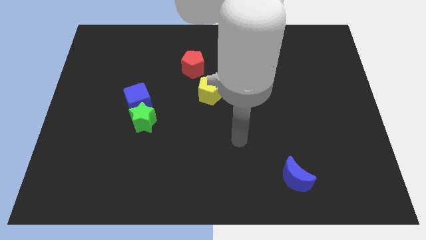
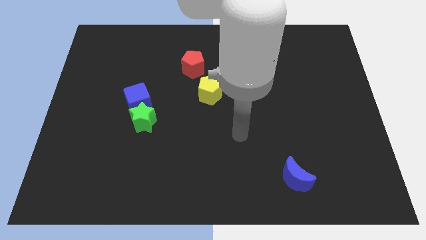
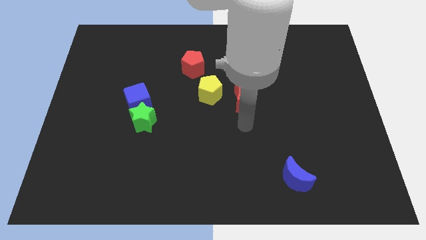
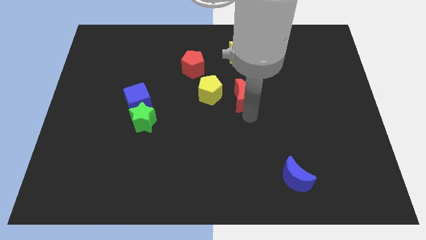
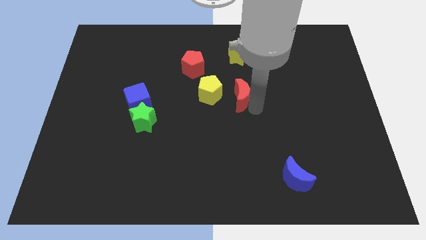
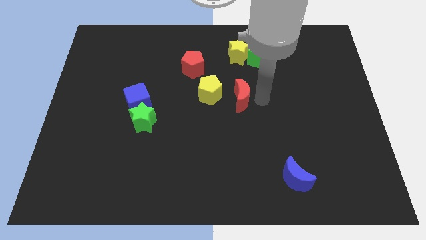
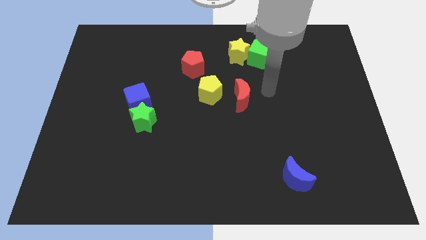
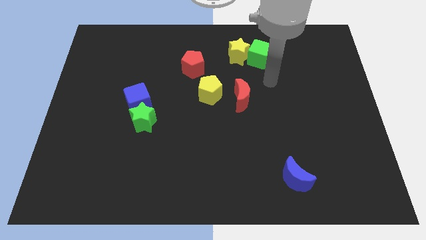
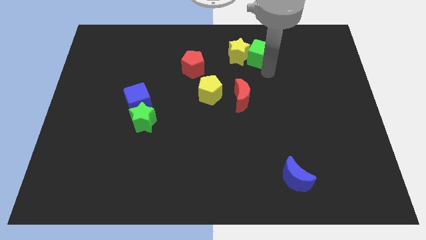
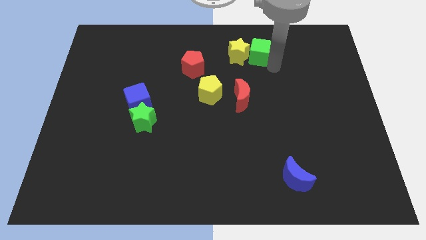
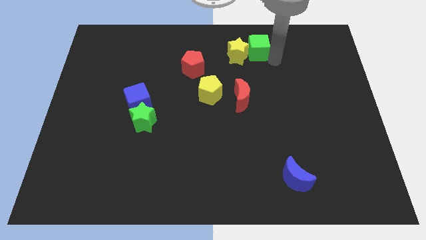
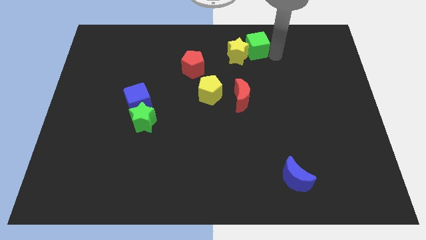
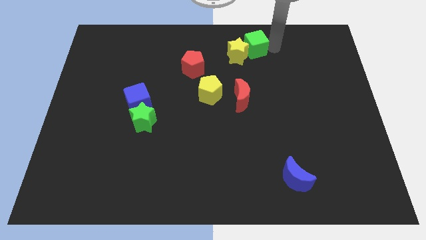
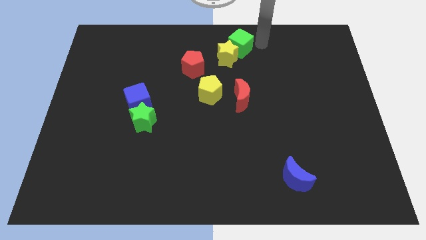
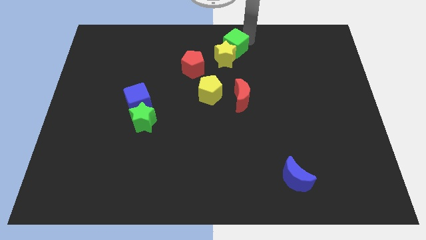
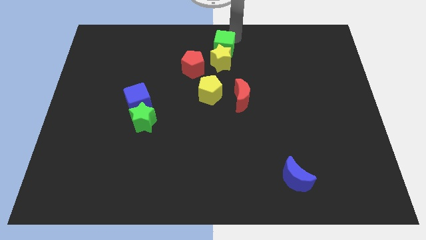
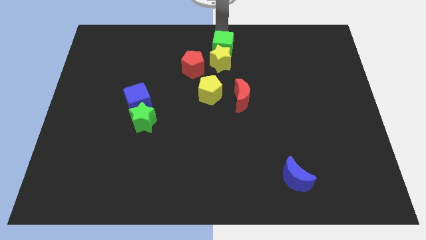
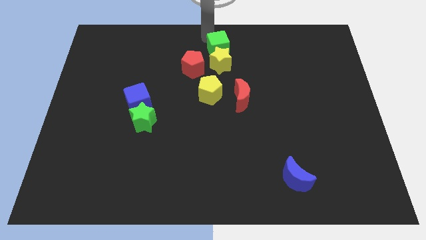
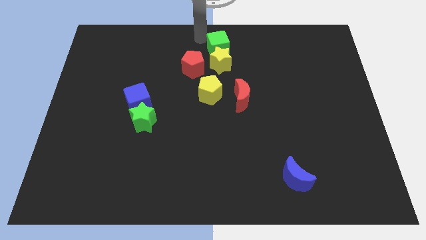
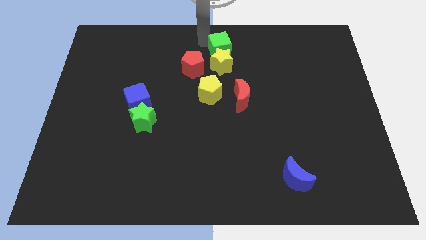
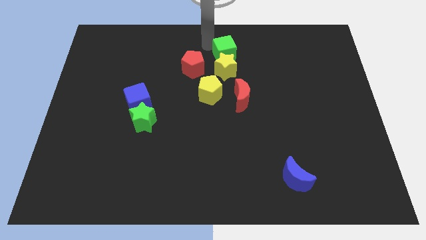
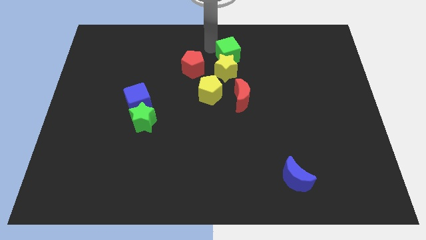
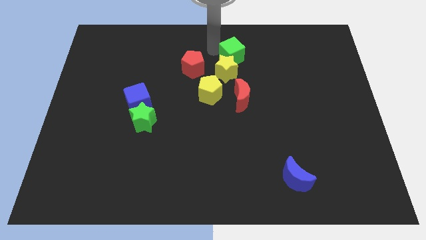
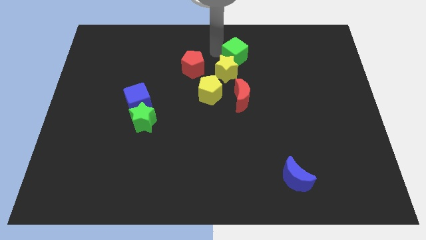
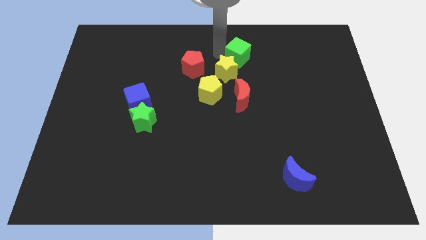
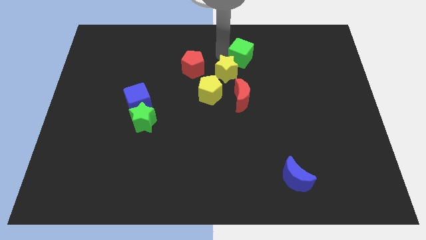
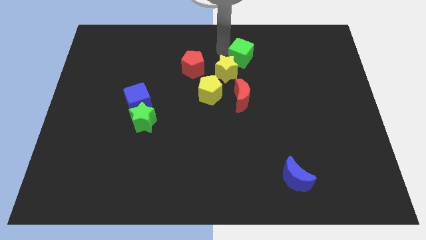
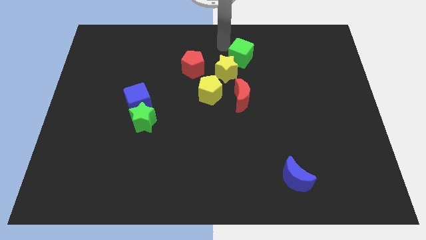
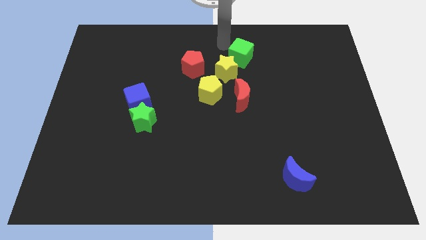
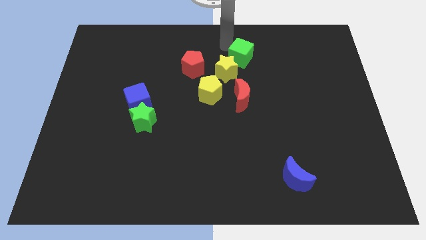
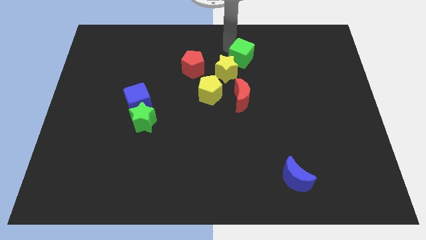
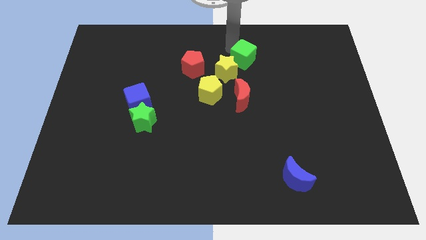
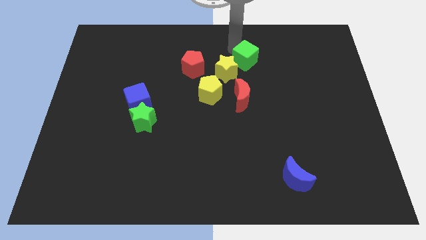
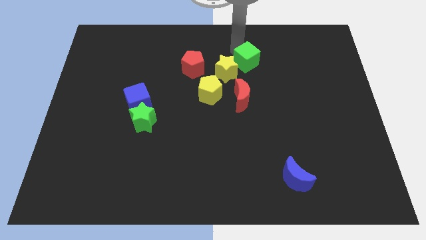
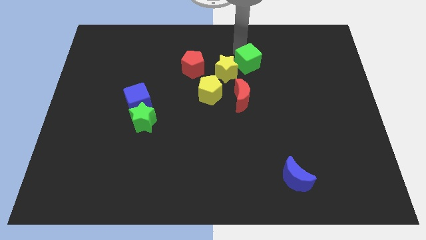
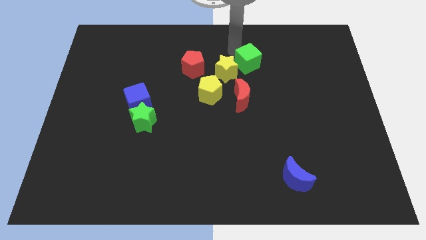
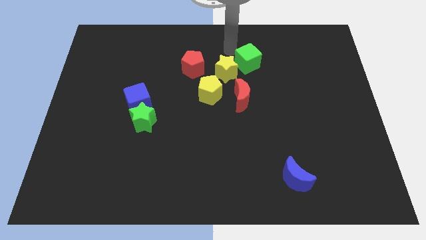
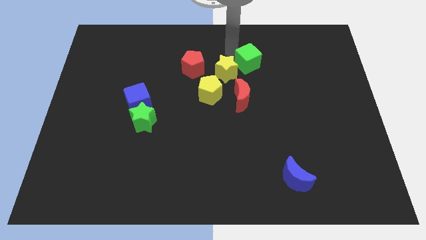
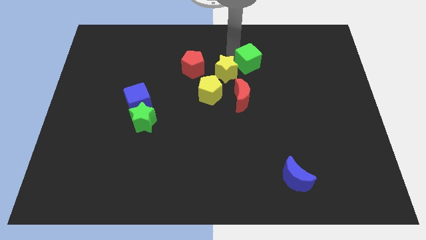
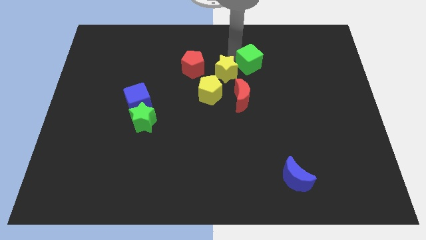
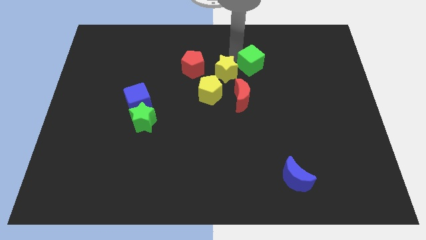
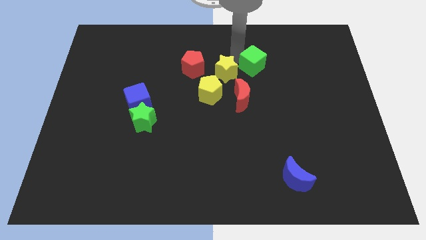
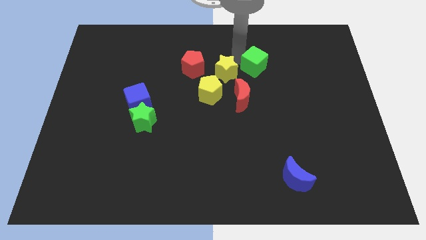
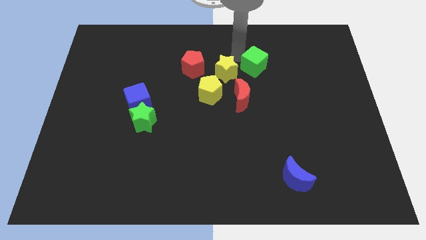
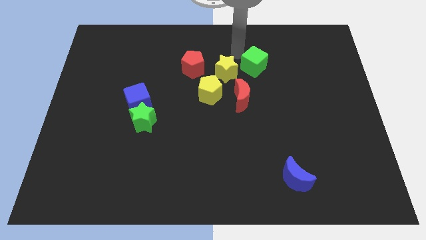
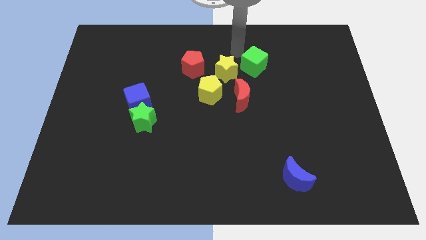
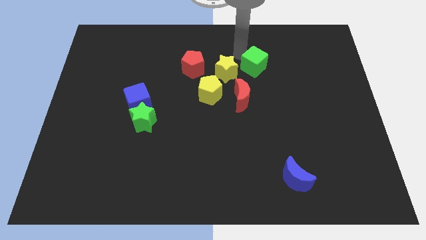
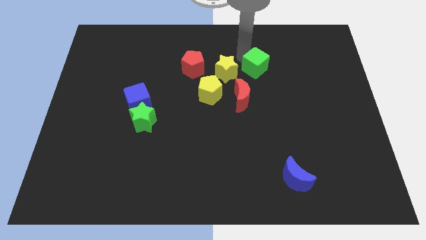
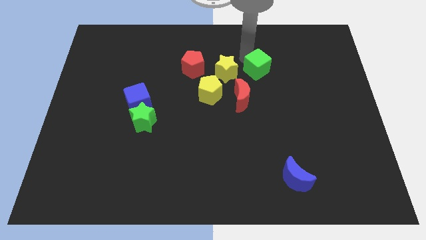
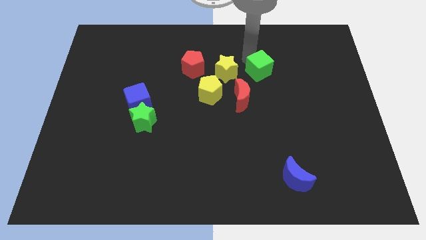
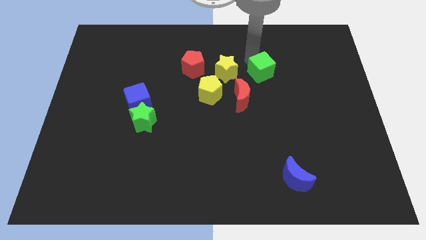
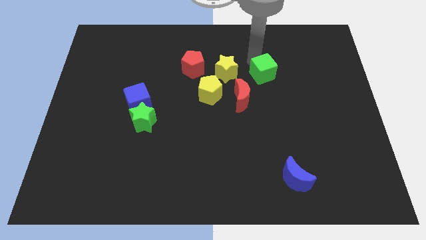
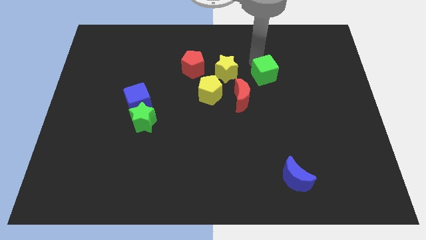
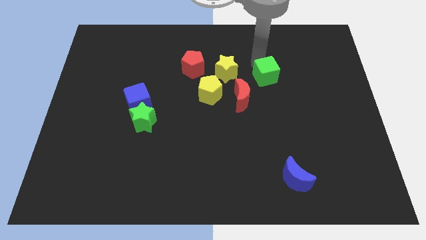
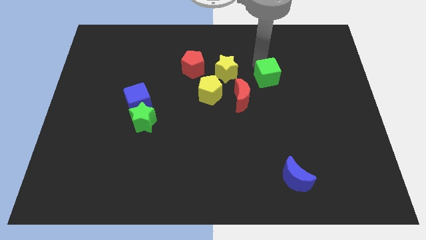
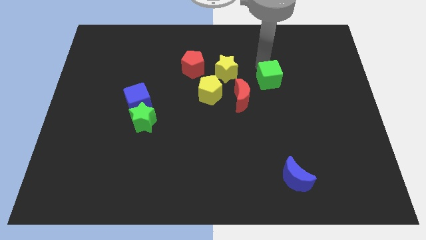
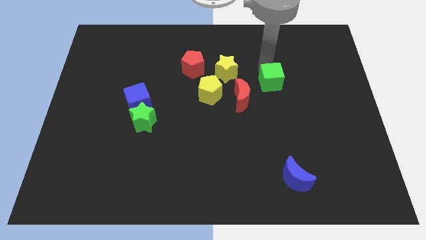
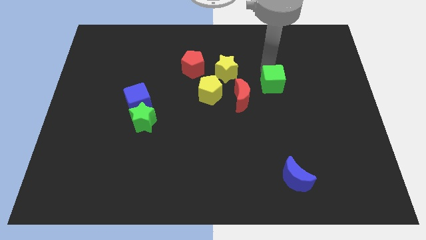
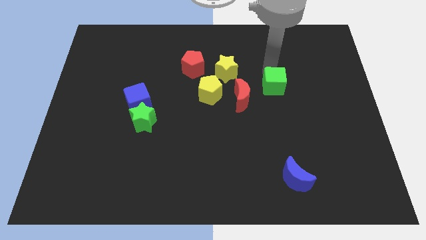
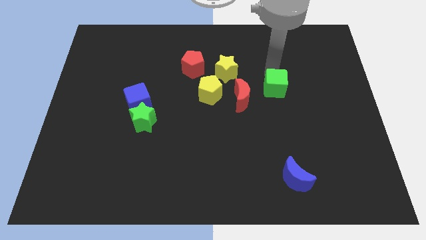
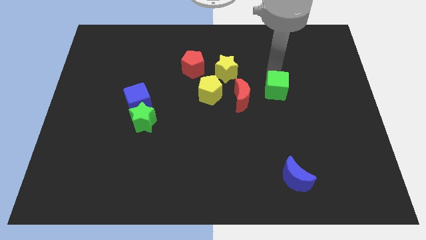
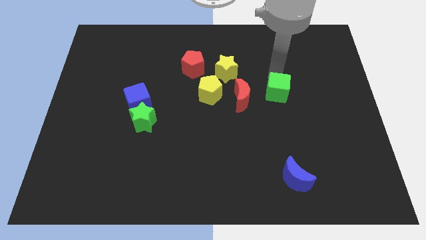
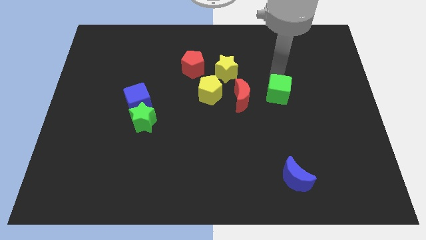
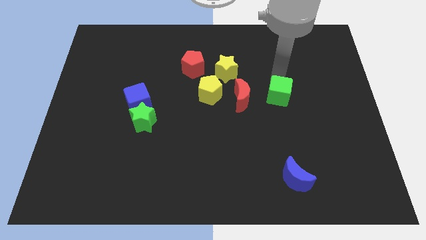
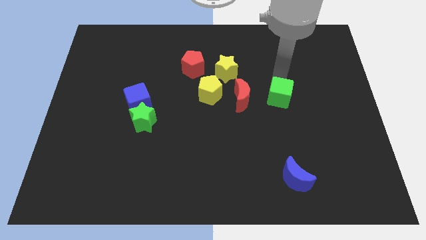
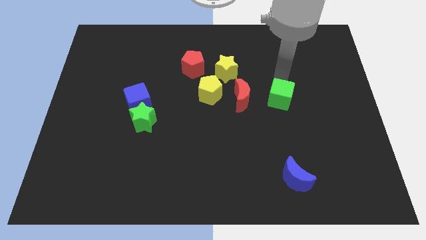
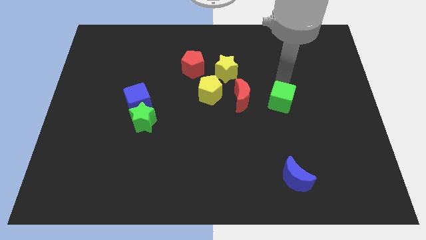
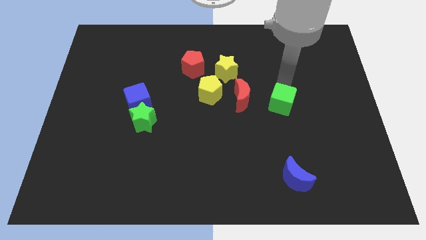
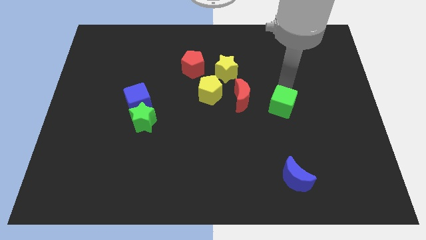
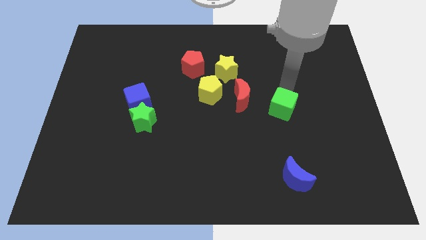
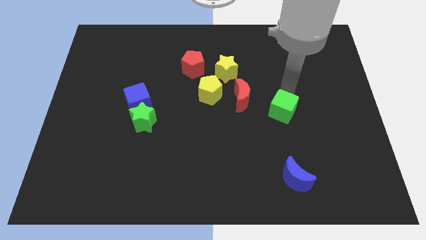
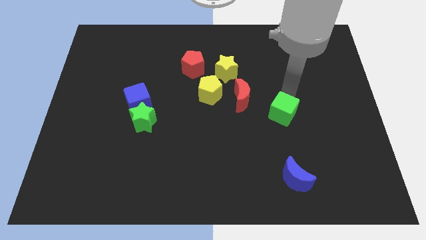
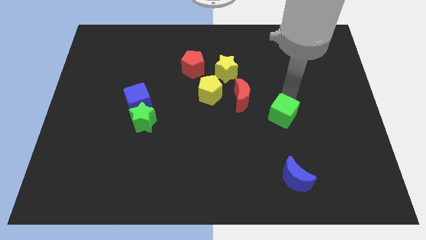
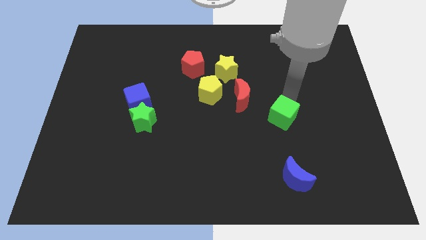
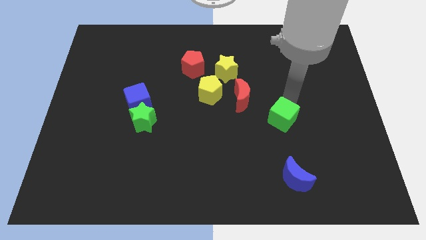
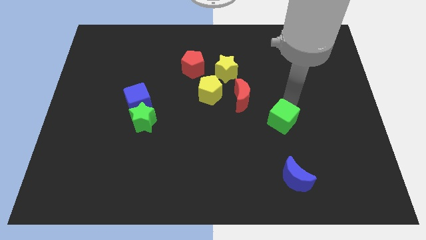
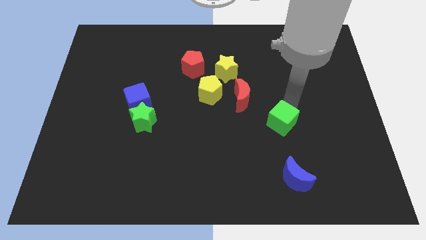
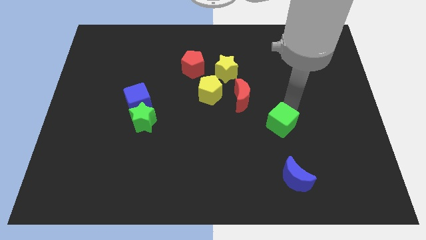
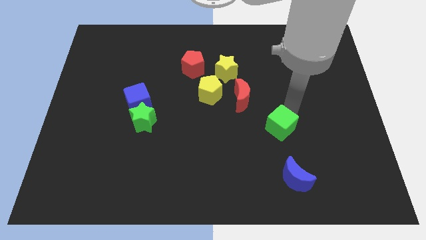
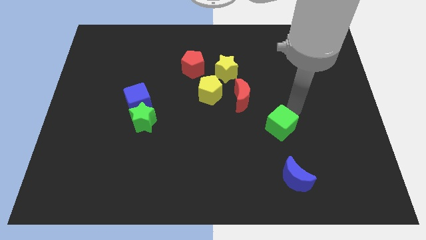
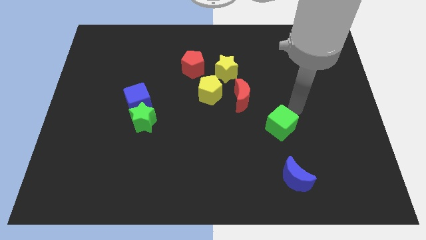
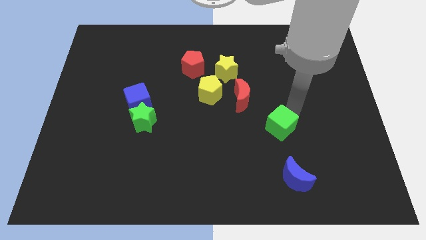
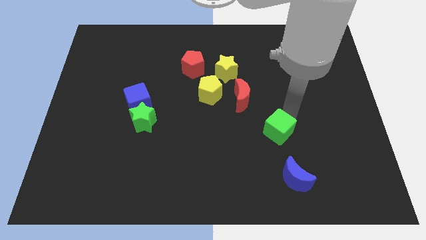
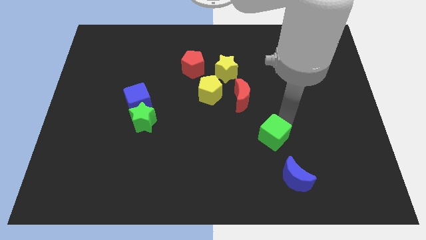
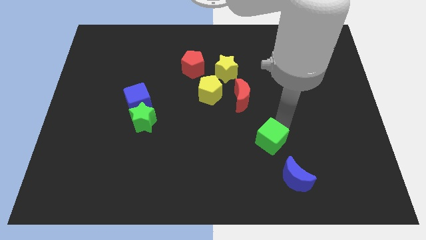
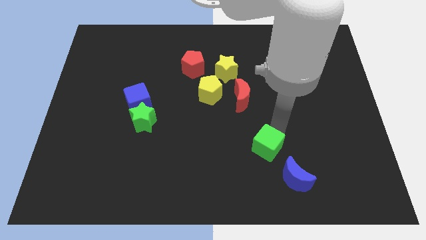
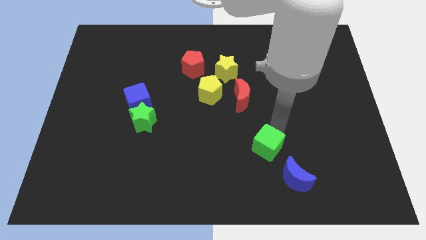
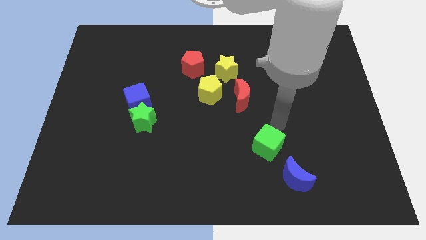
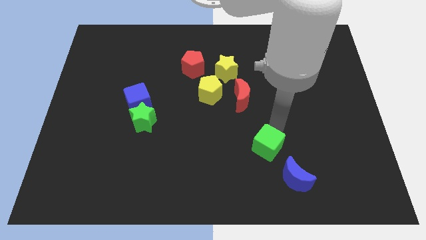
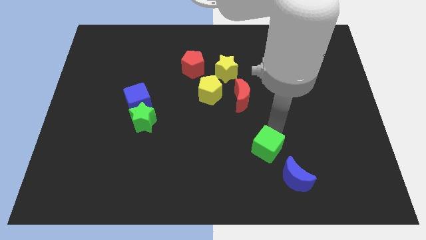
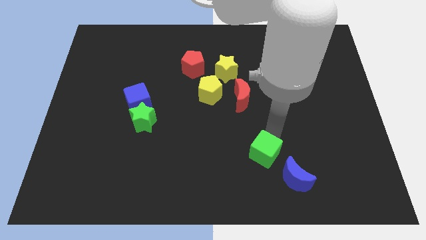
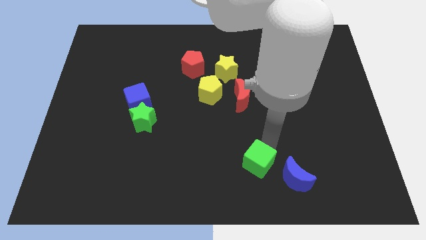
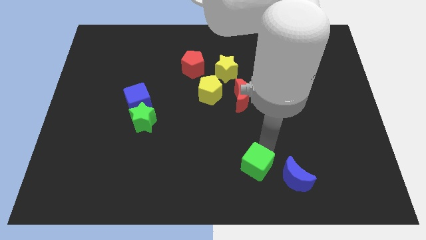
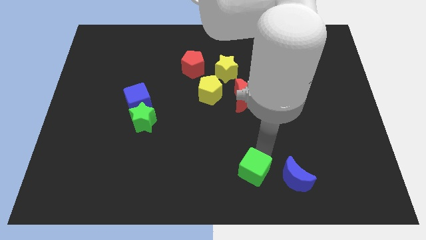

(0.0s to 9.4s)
slide the green cube to the bottom side
